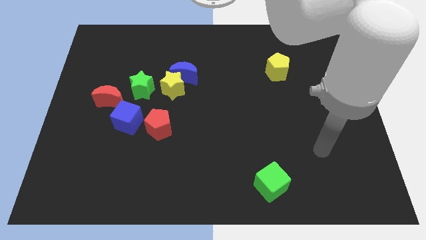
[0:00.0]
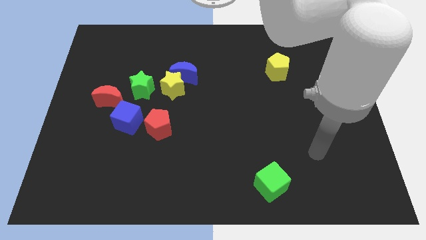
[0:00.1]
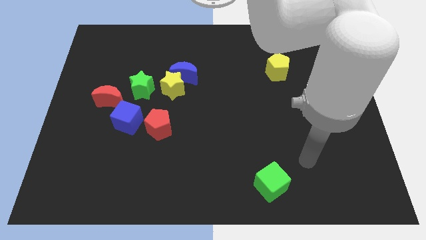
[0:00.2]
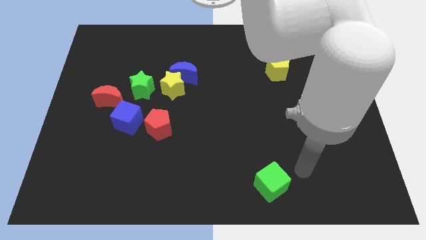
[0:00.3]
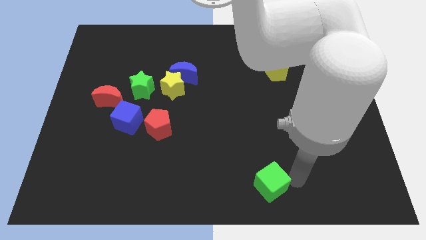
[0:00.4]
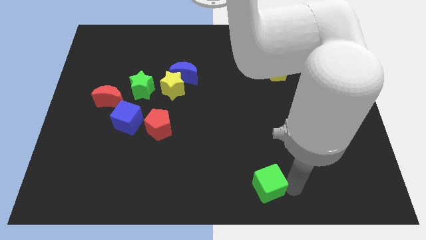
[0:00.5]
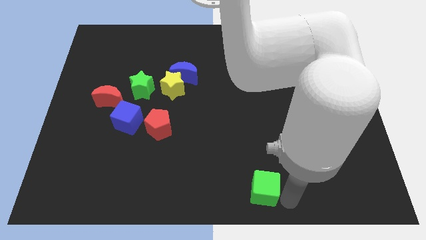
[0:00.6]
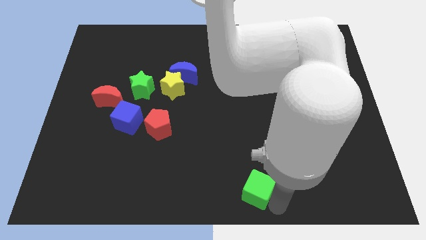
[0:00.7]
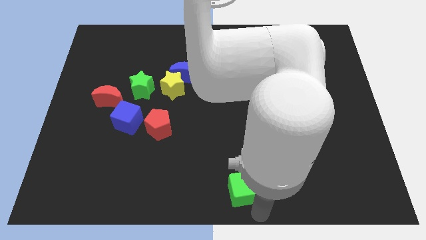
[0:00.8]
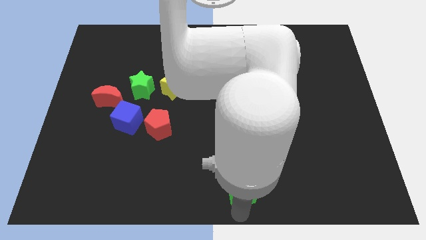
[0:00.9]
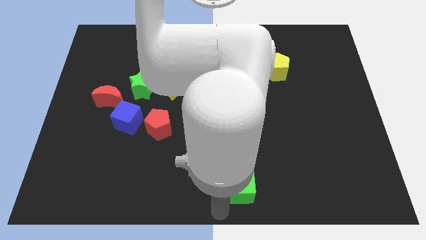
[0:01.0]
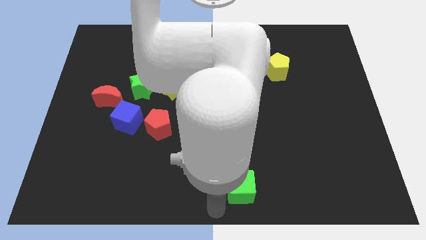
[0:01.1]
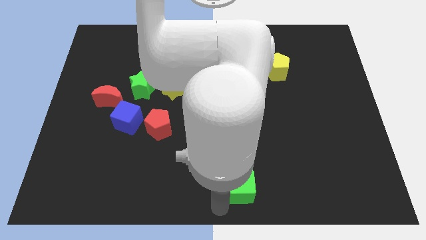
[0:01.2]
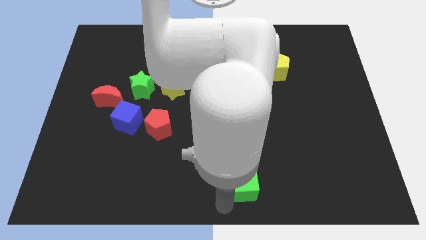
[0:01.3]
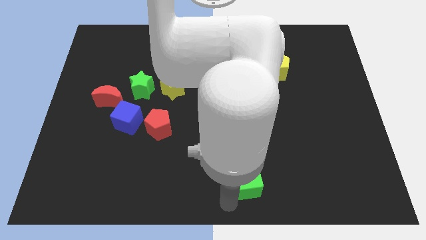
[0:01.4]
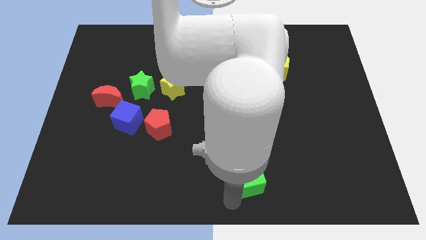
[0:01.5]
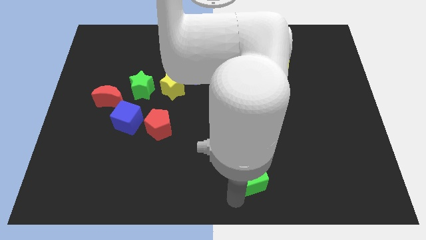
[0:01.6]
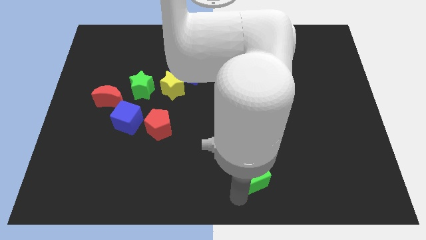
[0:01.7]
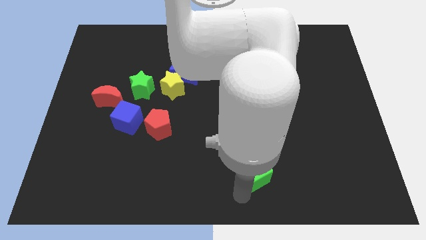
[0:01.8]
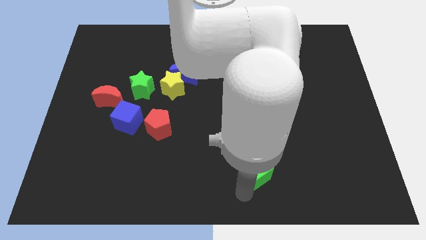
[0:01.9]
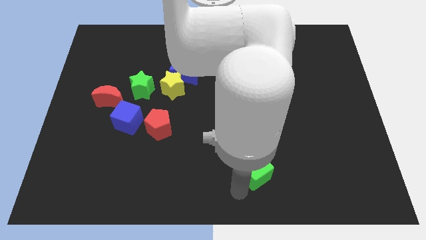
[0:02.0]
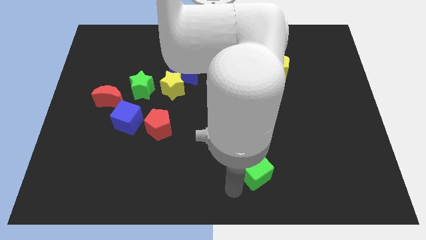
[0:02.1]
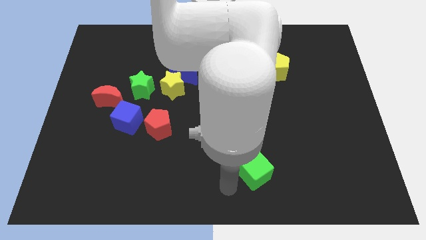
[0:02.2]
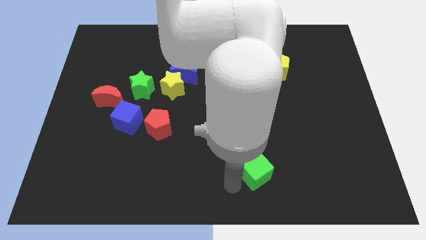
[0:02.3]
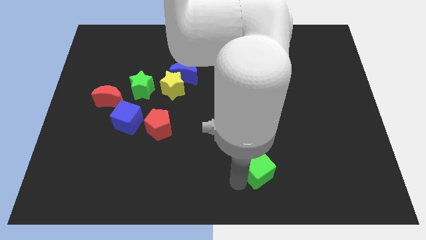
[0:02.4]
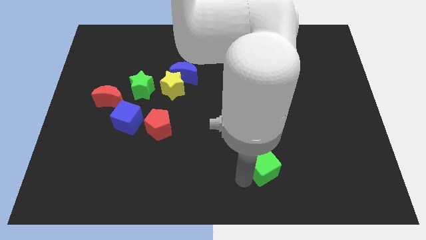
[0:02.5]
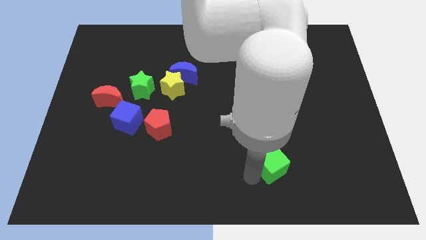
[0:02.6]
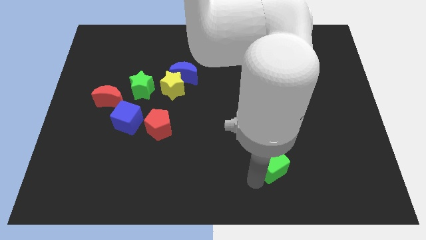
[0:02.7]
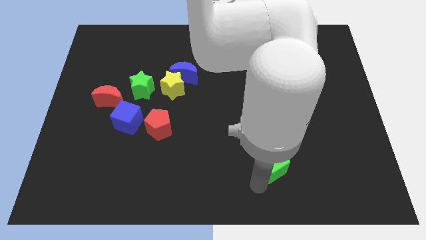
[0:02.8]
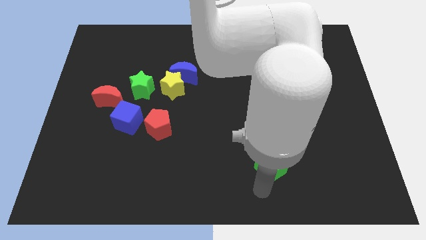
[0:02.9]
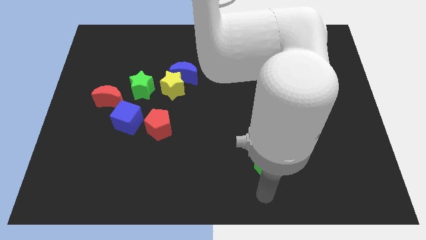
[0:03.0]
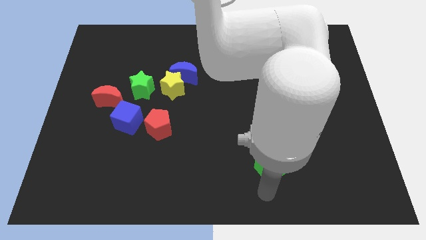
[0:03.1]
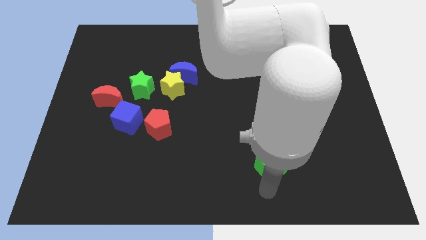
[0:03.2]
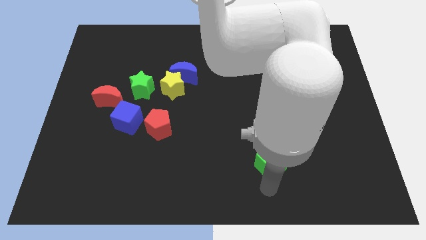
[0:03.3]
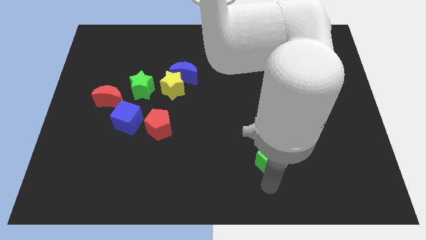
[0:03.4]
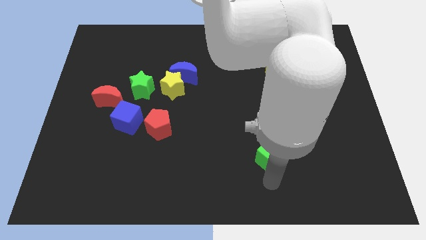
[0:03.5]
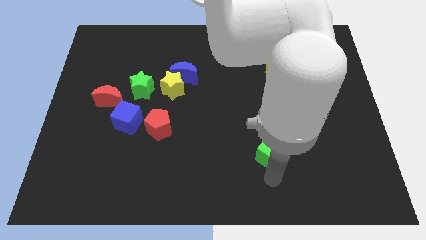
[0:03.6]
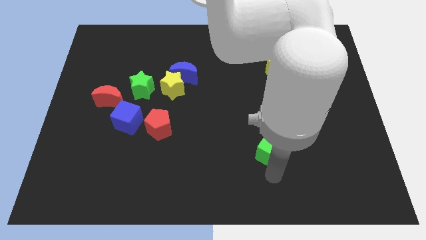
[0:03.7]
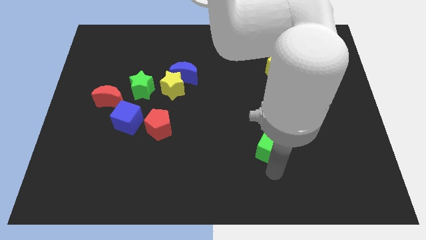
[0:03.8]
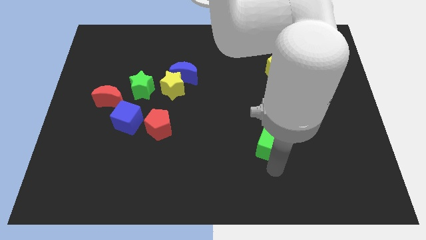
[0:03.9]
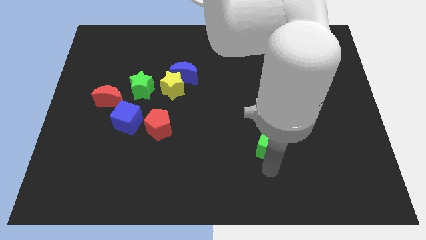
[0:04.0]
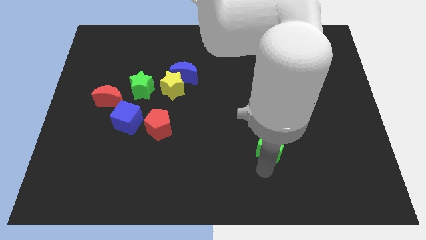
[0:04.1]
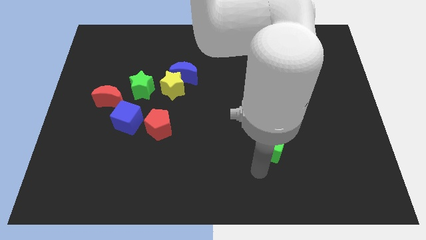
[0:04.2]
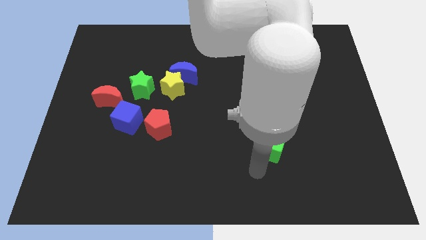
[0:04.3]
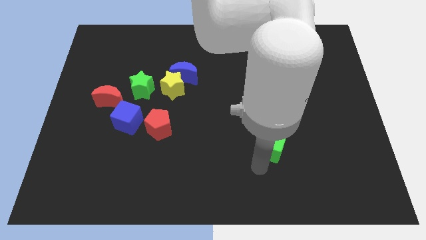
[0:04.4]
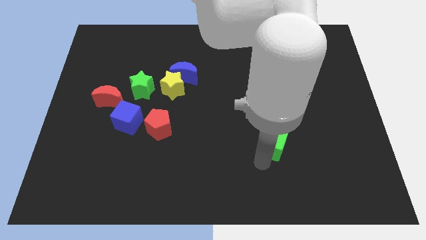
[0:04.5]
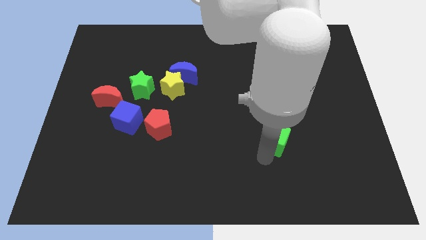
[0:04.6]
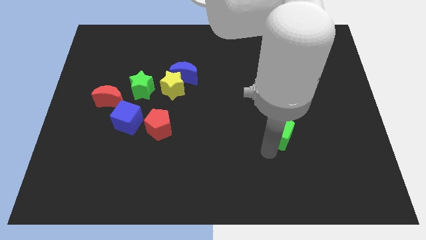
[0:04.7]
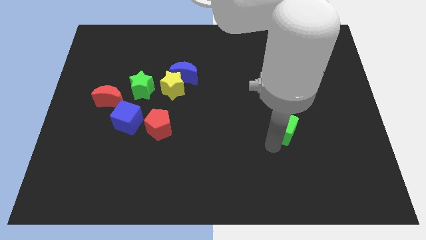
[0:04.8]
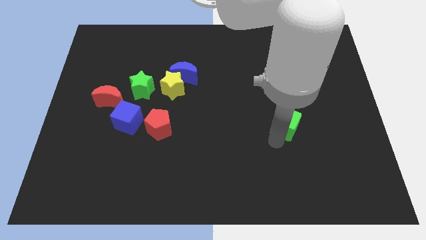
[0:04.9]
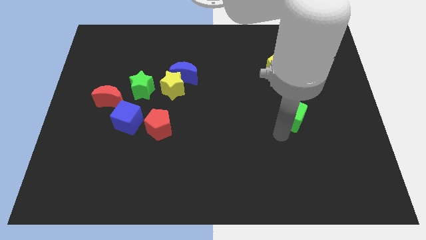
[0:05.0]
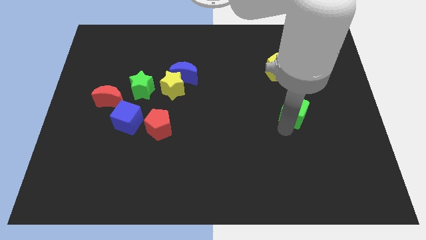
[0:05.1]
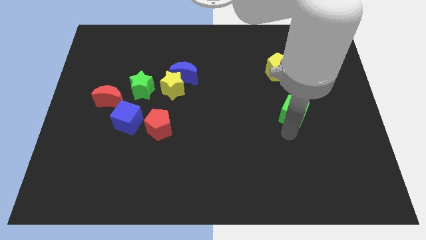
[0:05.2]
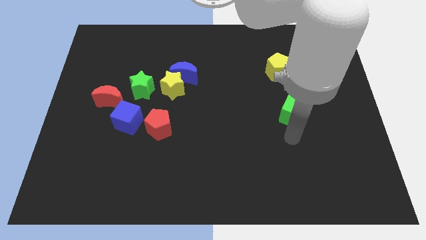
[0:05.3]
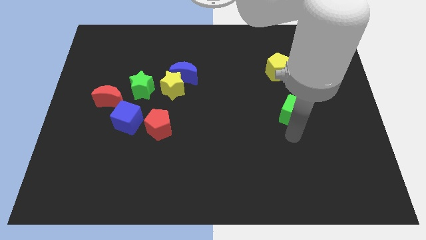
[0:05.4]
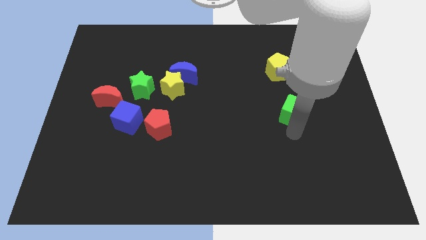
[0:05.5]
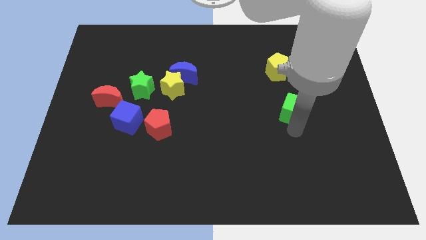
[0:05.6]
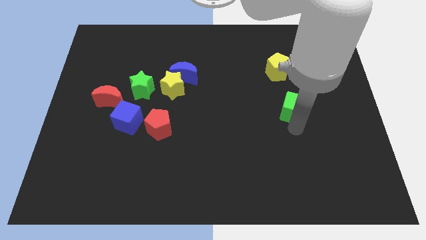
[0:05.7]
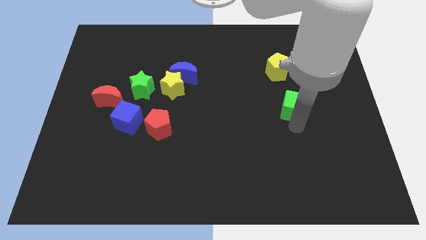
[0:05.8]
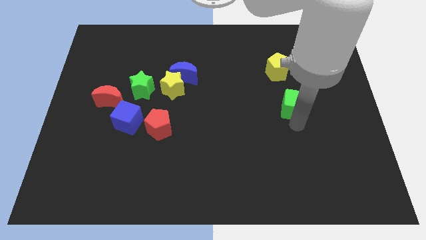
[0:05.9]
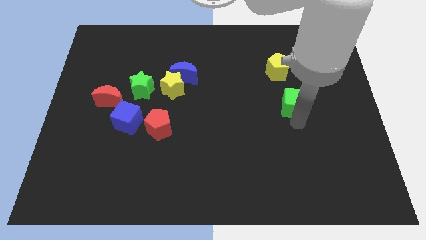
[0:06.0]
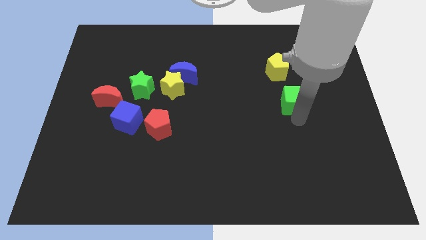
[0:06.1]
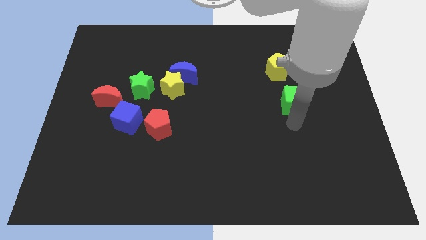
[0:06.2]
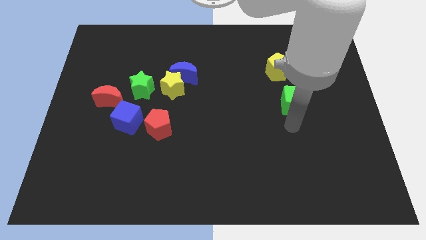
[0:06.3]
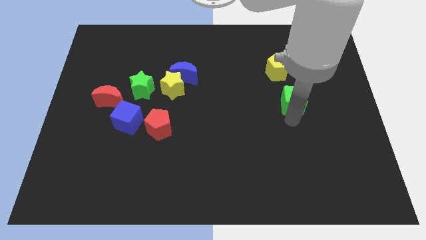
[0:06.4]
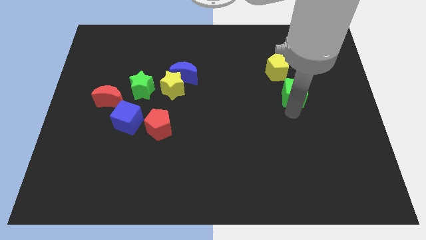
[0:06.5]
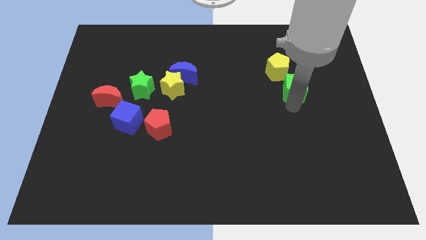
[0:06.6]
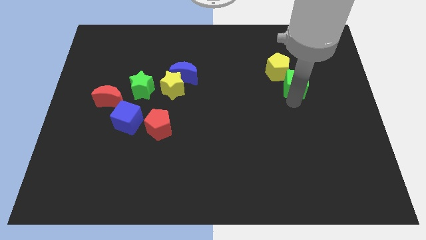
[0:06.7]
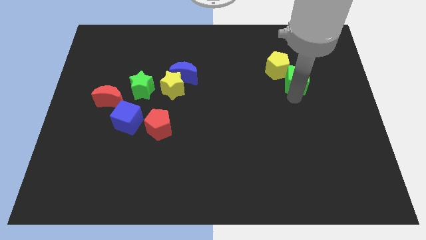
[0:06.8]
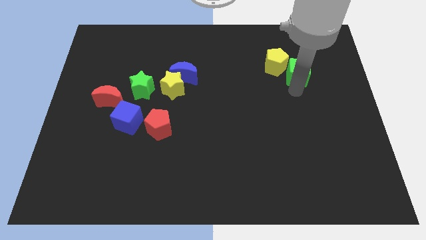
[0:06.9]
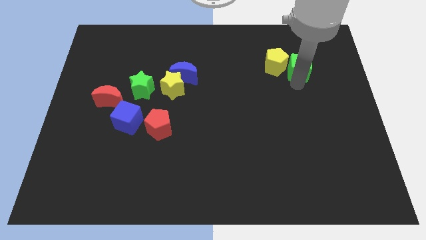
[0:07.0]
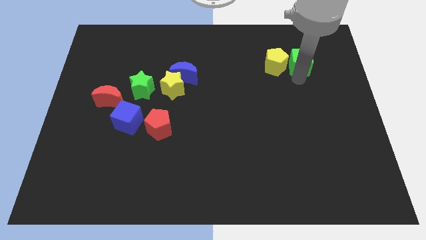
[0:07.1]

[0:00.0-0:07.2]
put the green cube diagonally up and to the right of the yellow pentagon
